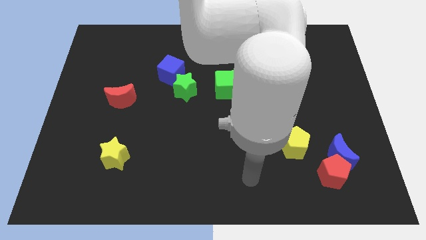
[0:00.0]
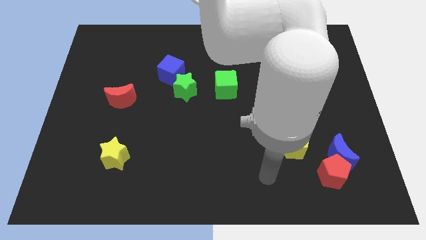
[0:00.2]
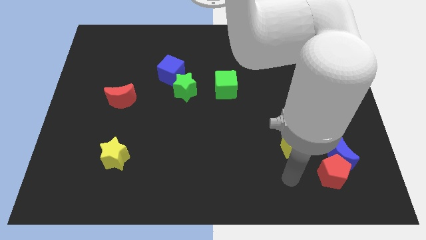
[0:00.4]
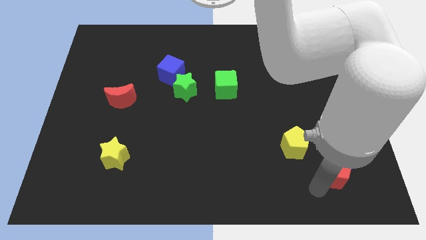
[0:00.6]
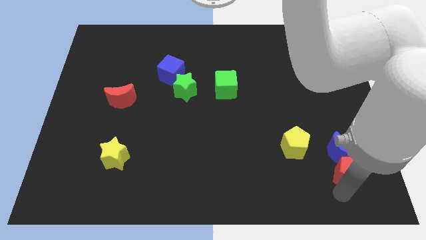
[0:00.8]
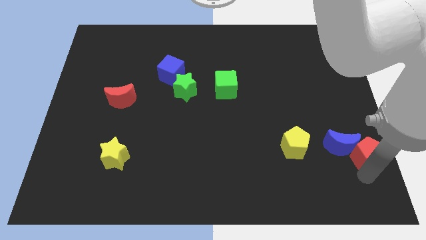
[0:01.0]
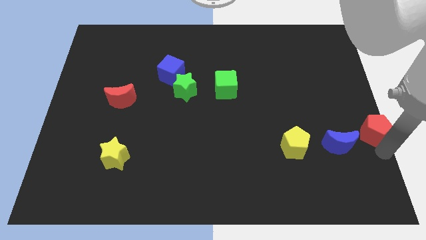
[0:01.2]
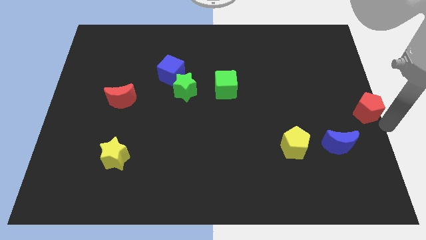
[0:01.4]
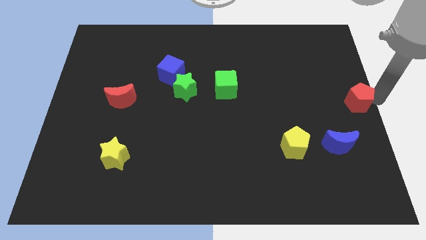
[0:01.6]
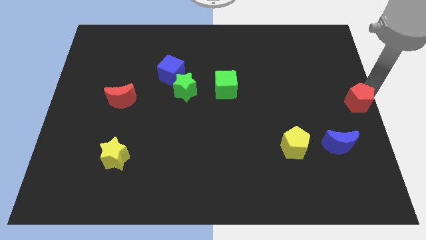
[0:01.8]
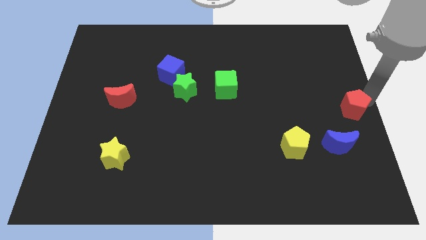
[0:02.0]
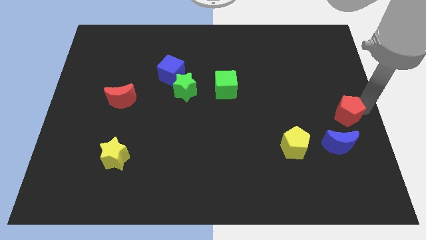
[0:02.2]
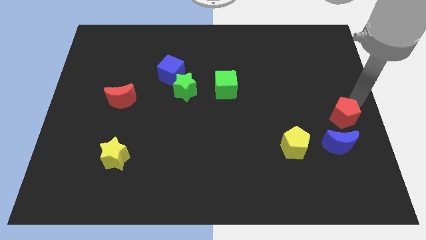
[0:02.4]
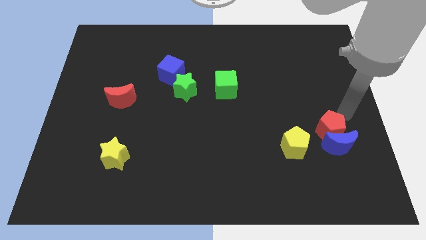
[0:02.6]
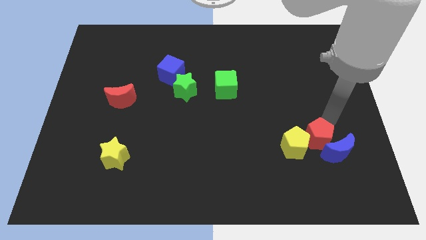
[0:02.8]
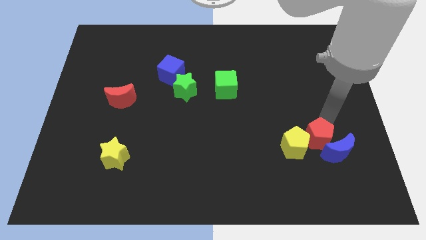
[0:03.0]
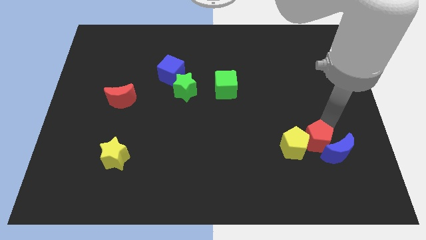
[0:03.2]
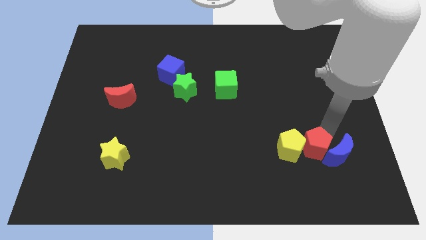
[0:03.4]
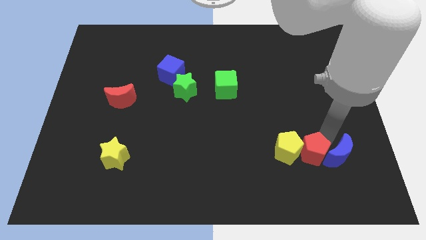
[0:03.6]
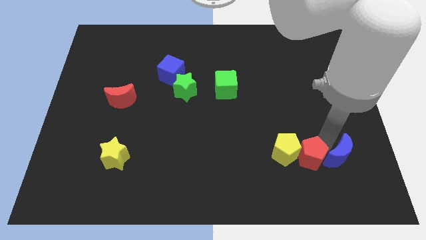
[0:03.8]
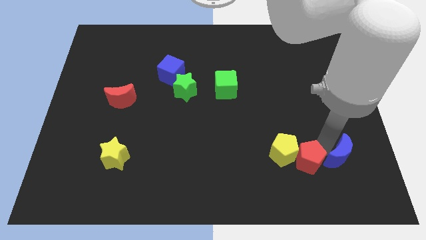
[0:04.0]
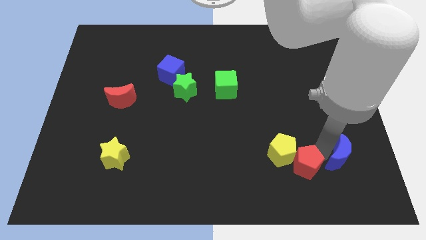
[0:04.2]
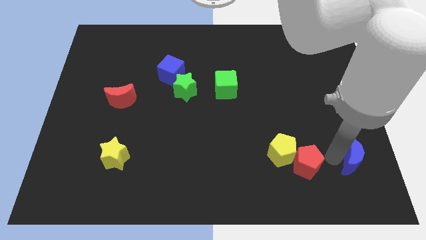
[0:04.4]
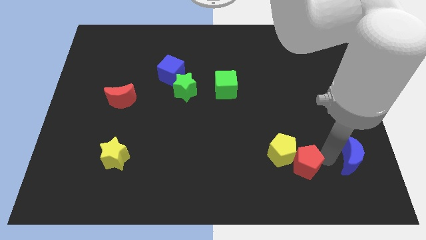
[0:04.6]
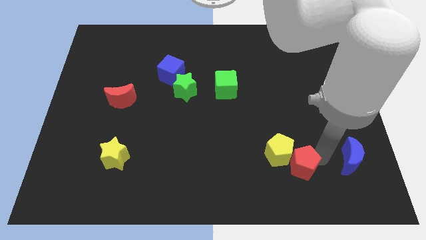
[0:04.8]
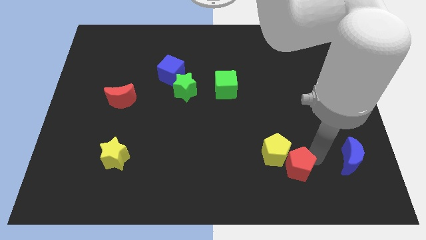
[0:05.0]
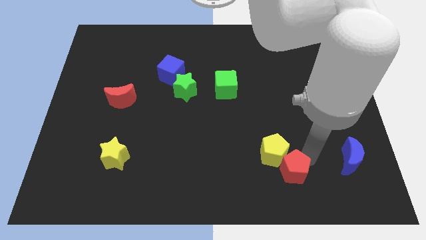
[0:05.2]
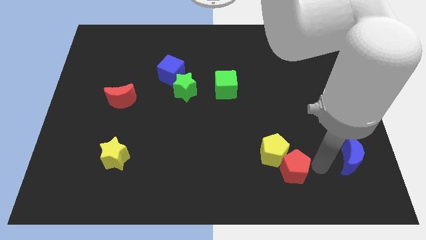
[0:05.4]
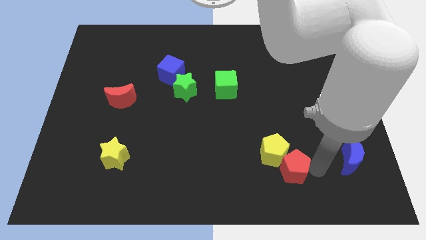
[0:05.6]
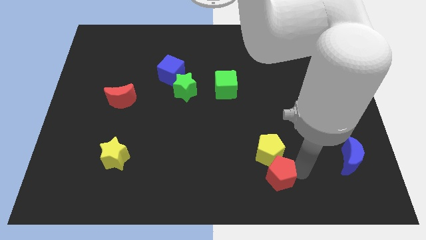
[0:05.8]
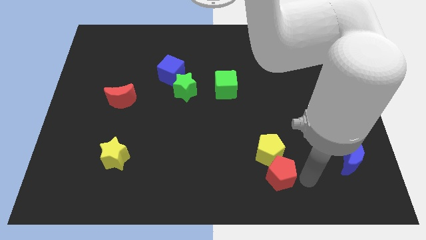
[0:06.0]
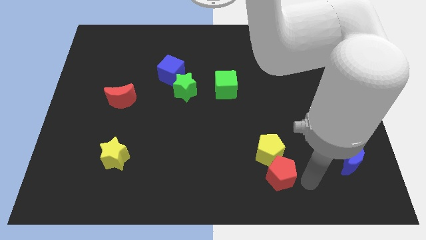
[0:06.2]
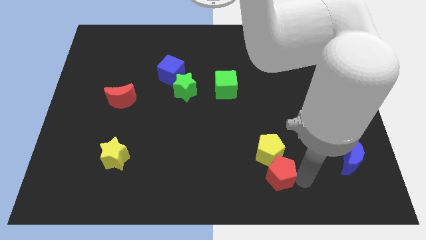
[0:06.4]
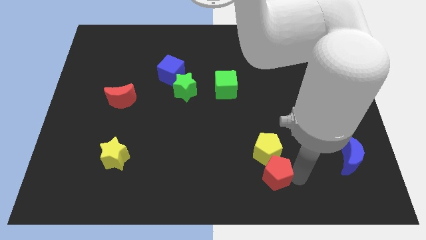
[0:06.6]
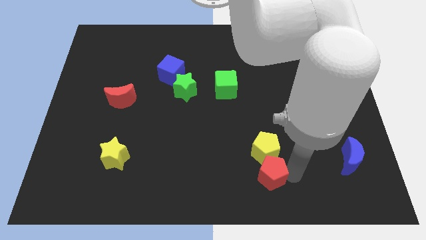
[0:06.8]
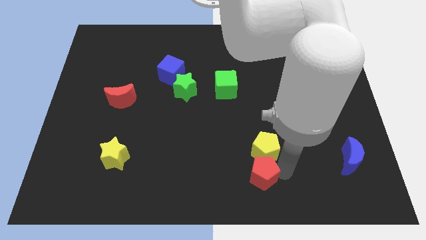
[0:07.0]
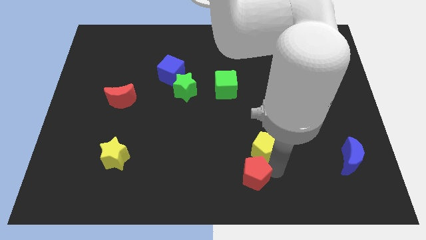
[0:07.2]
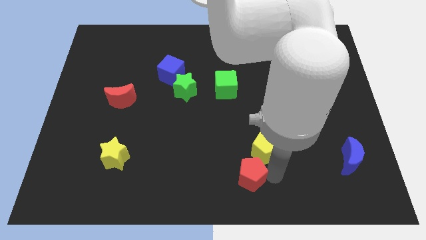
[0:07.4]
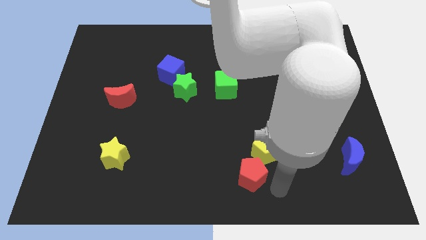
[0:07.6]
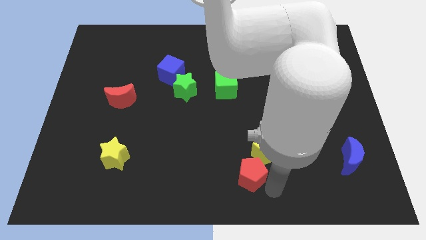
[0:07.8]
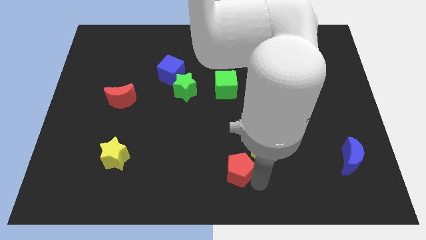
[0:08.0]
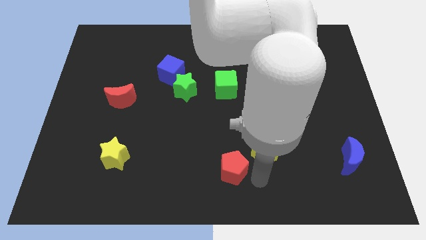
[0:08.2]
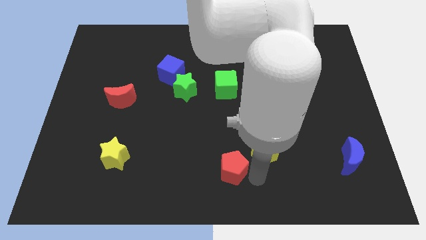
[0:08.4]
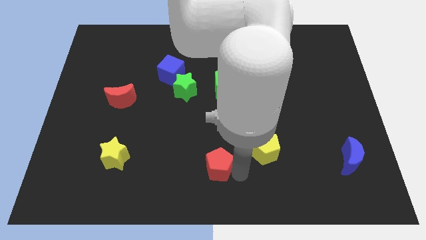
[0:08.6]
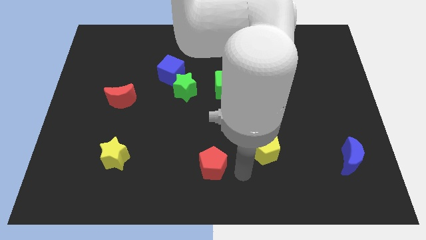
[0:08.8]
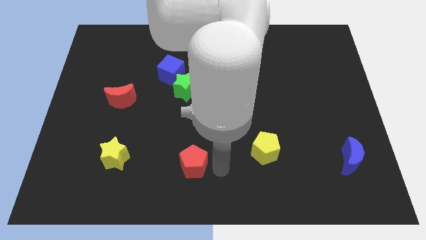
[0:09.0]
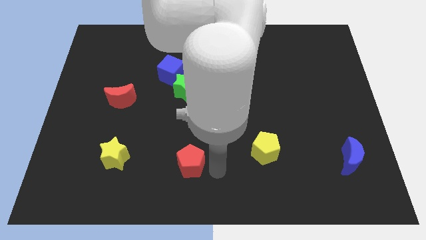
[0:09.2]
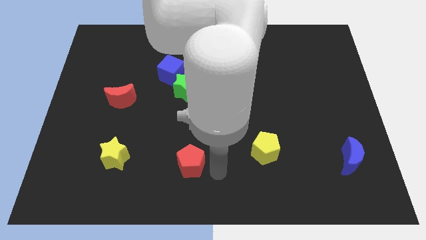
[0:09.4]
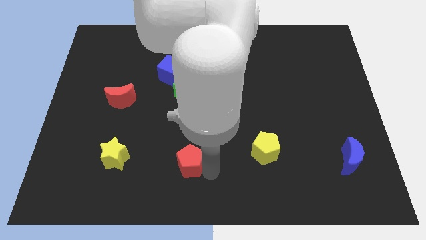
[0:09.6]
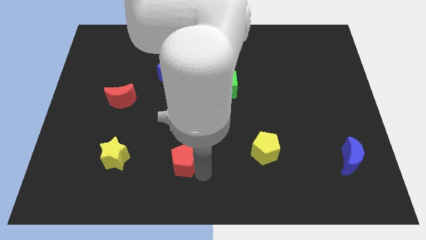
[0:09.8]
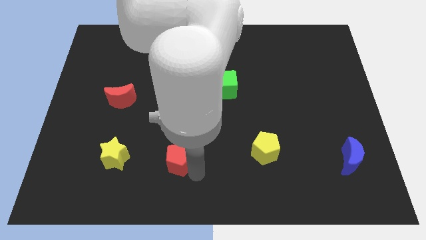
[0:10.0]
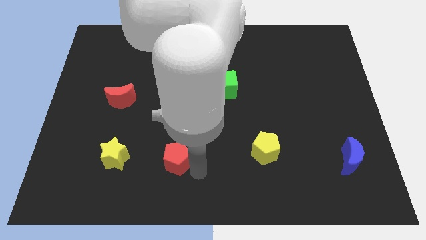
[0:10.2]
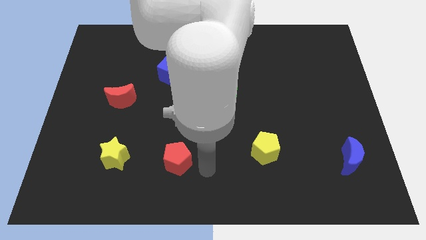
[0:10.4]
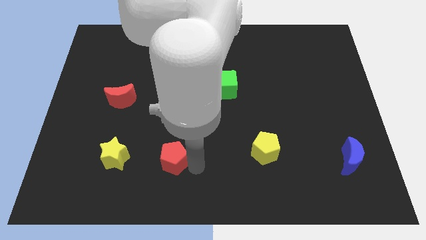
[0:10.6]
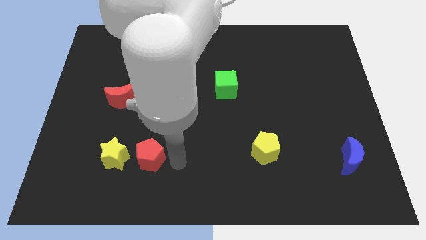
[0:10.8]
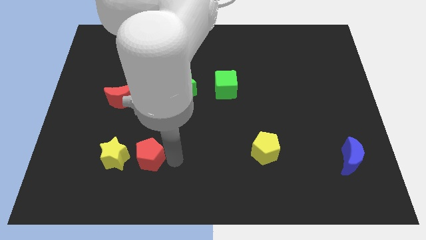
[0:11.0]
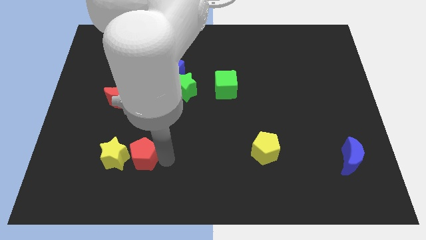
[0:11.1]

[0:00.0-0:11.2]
put the red pentagon close to the yellow star

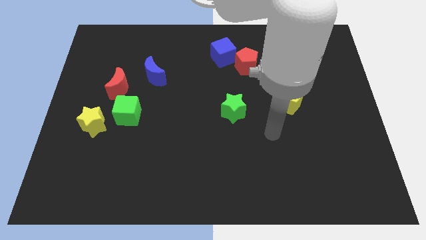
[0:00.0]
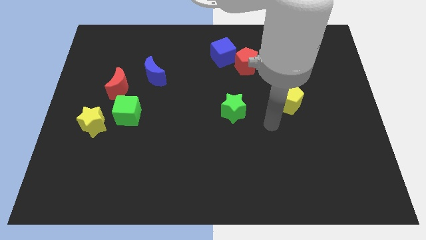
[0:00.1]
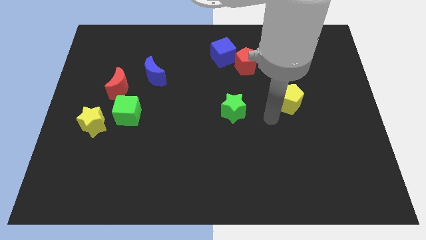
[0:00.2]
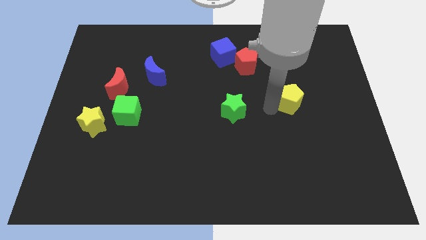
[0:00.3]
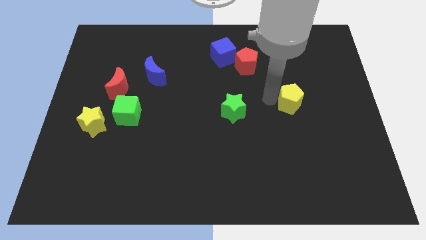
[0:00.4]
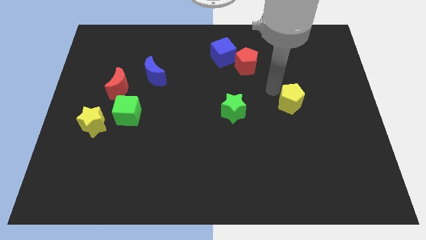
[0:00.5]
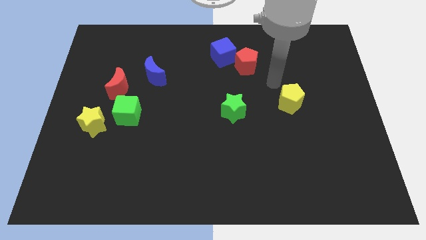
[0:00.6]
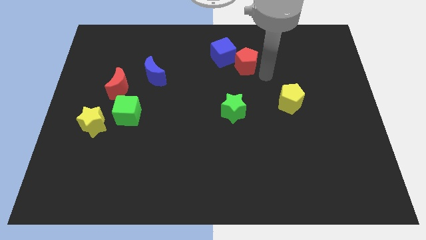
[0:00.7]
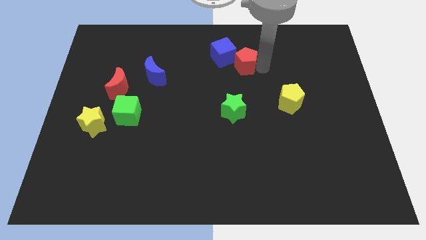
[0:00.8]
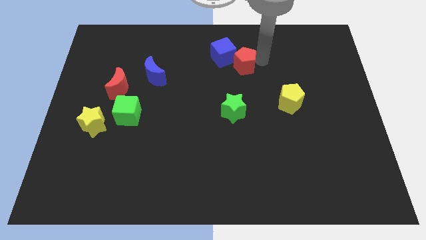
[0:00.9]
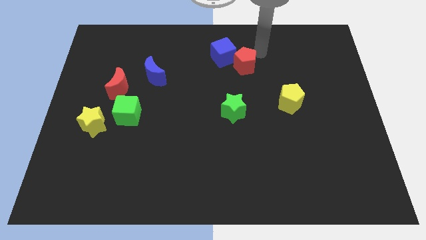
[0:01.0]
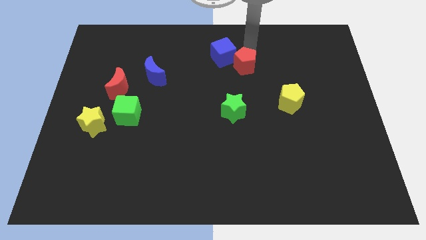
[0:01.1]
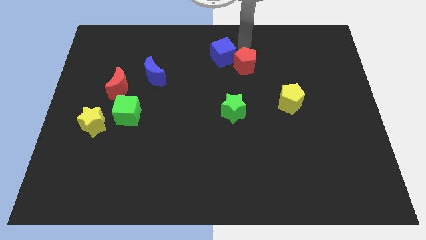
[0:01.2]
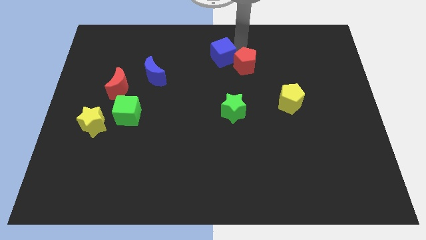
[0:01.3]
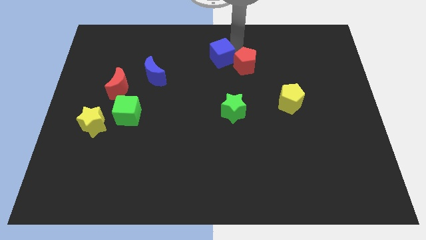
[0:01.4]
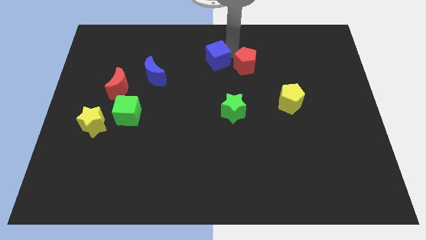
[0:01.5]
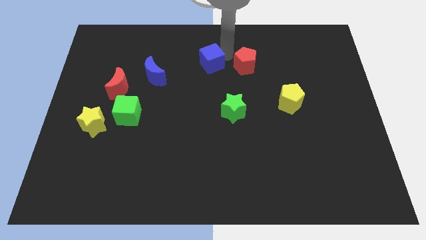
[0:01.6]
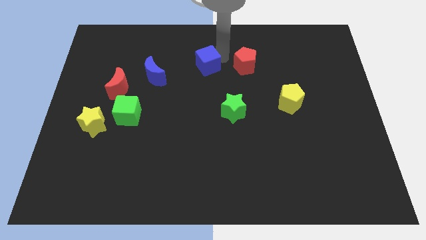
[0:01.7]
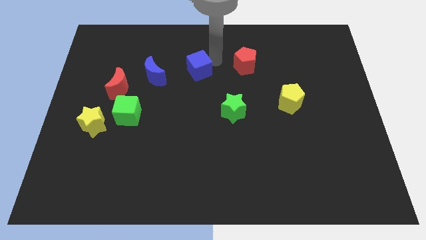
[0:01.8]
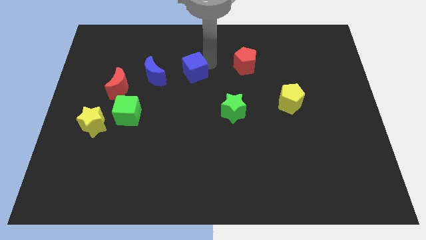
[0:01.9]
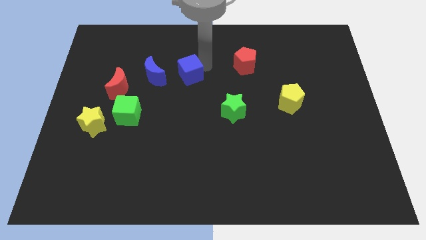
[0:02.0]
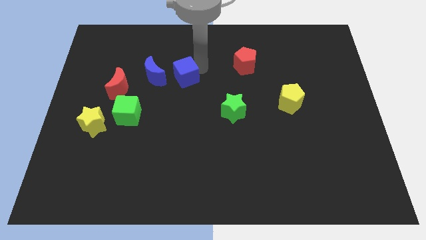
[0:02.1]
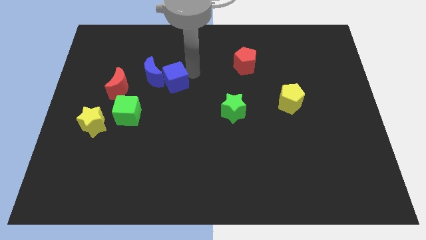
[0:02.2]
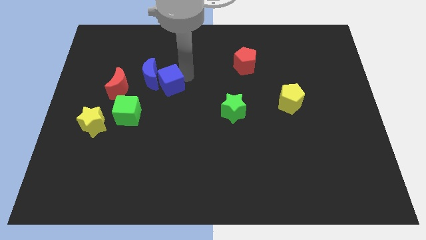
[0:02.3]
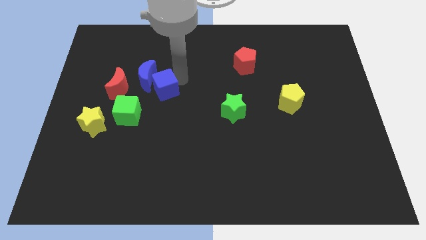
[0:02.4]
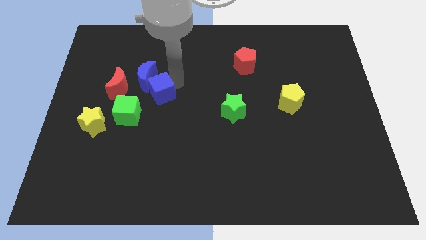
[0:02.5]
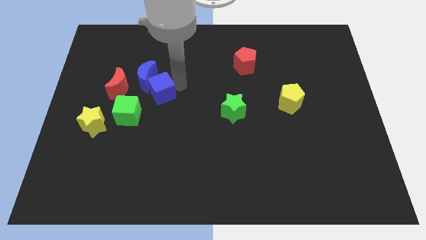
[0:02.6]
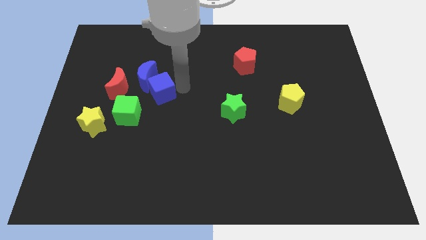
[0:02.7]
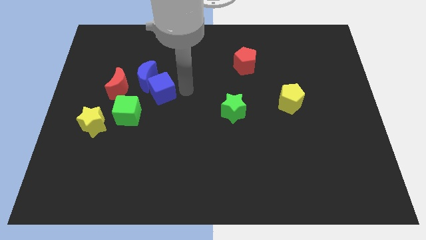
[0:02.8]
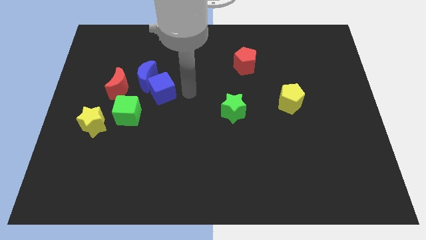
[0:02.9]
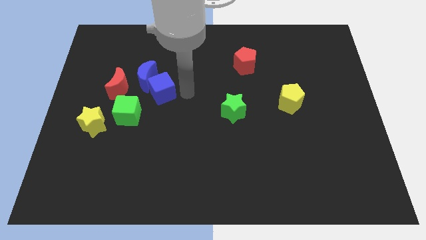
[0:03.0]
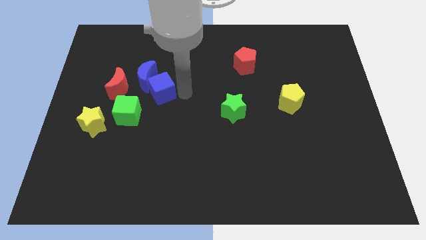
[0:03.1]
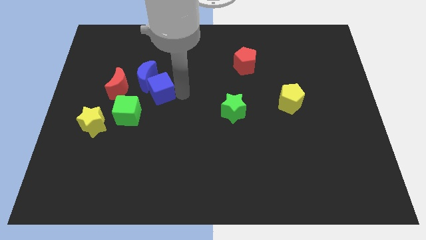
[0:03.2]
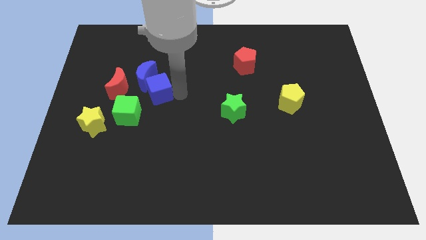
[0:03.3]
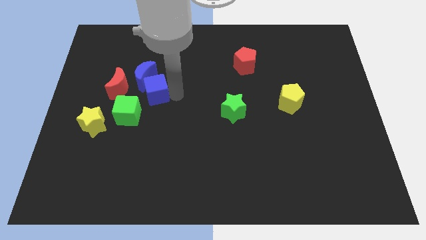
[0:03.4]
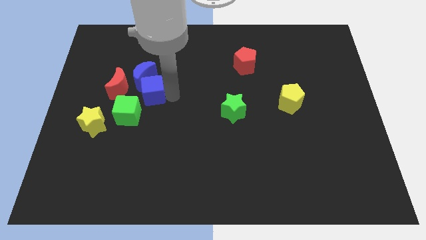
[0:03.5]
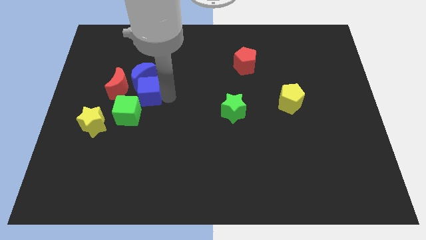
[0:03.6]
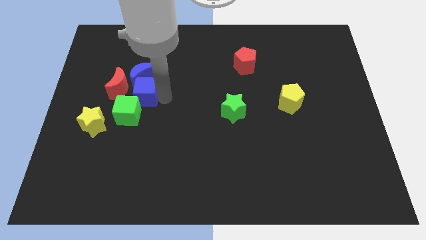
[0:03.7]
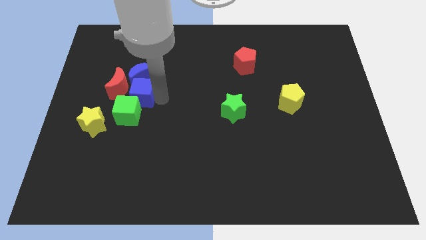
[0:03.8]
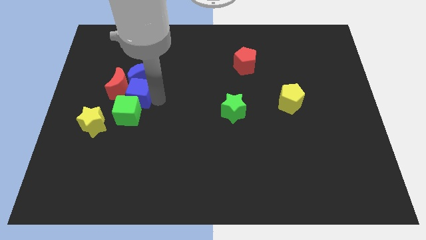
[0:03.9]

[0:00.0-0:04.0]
push the blue cube towards the red moon
